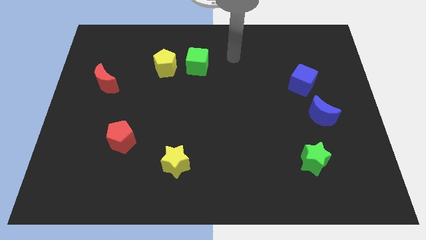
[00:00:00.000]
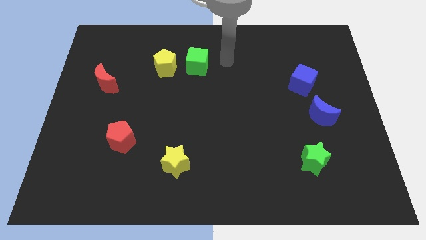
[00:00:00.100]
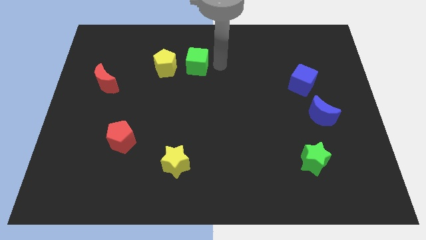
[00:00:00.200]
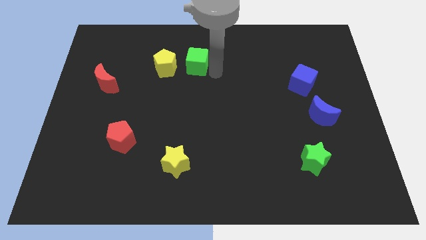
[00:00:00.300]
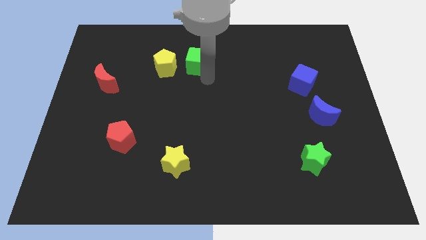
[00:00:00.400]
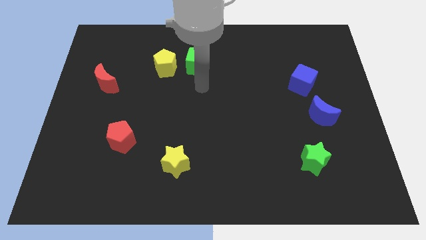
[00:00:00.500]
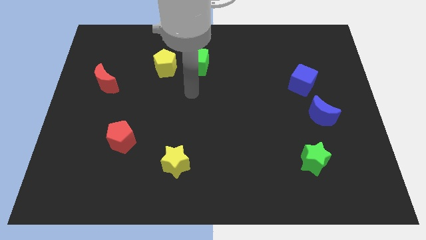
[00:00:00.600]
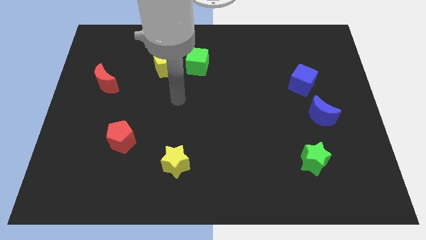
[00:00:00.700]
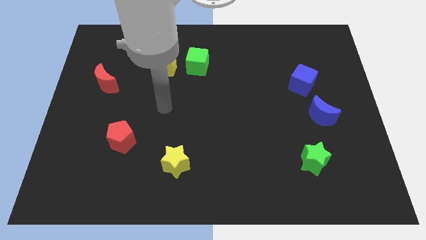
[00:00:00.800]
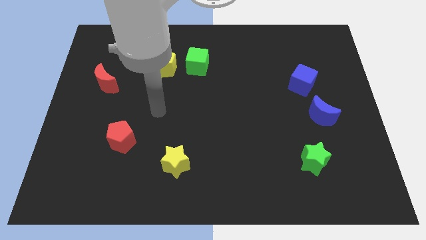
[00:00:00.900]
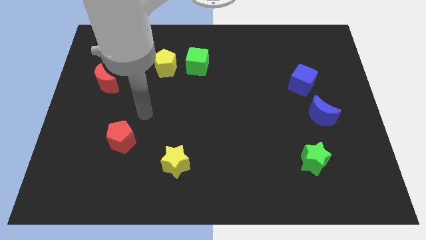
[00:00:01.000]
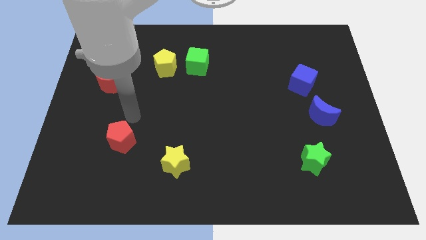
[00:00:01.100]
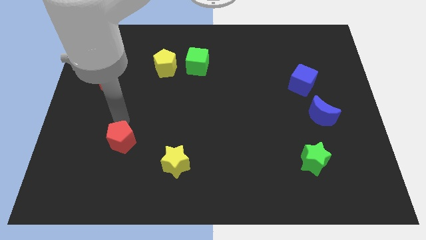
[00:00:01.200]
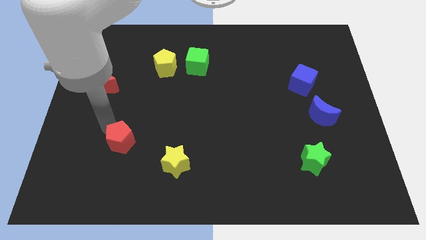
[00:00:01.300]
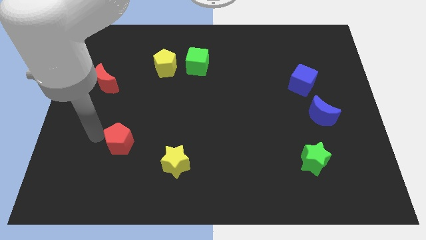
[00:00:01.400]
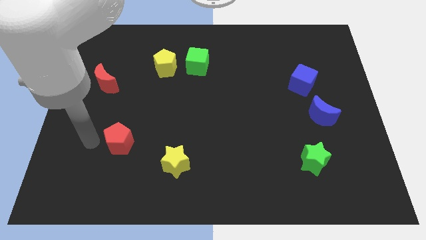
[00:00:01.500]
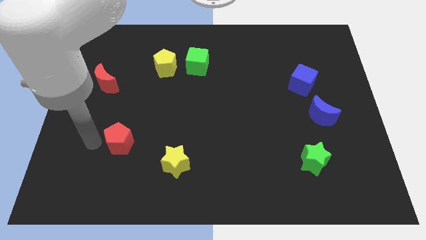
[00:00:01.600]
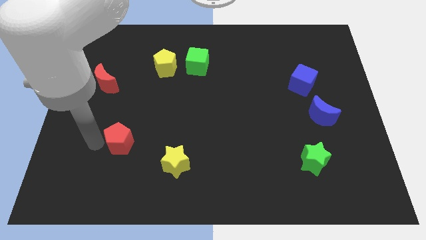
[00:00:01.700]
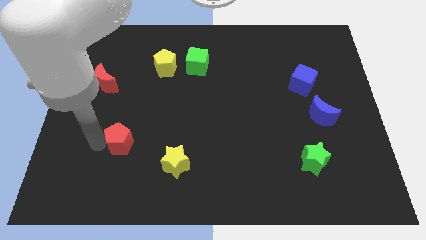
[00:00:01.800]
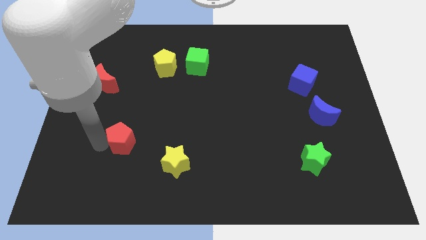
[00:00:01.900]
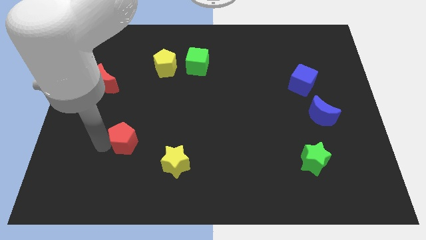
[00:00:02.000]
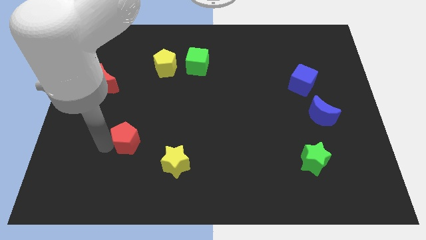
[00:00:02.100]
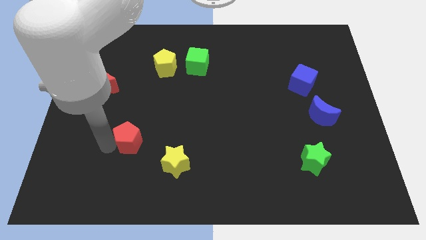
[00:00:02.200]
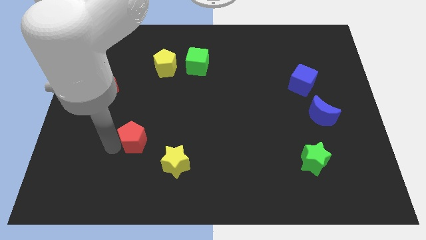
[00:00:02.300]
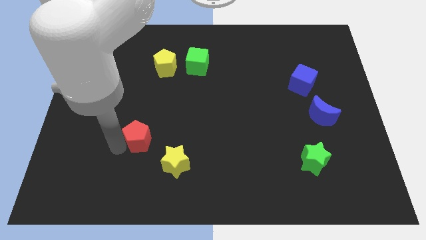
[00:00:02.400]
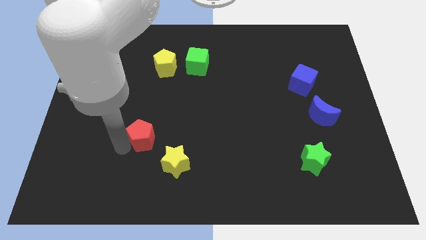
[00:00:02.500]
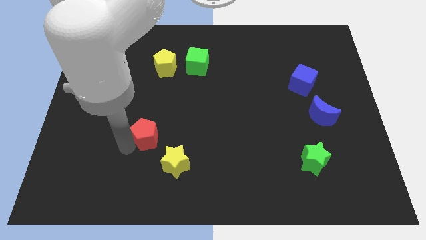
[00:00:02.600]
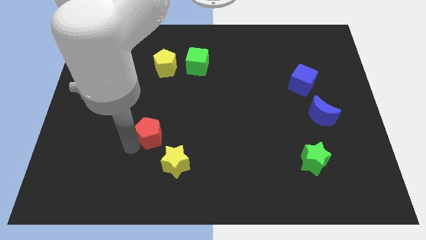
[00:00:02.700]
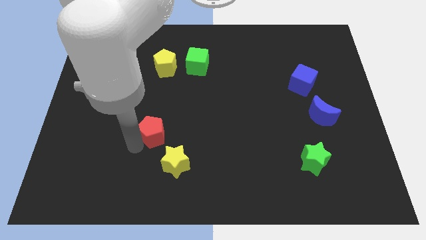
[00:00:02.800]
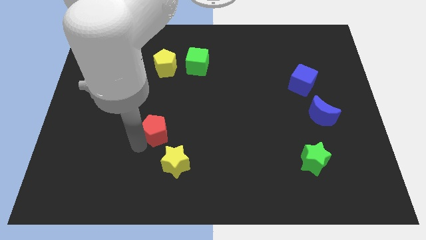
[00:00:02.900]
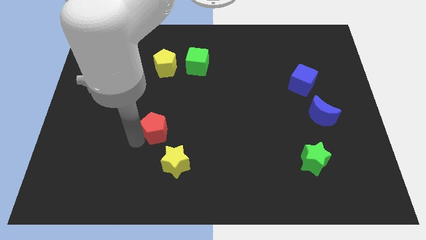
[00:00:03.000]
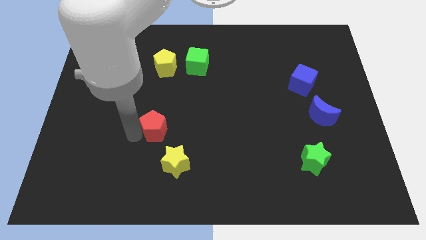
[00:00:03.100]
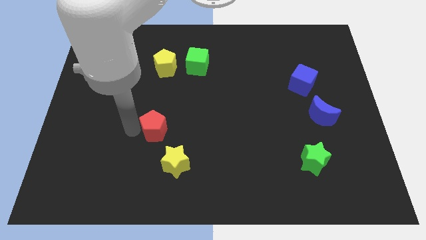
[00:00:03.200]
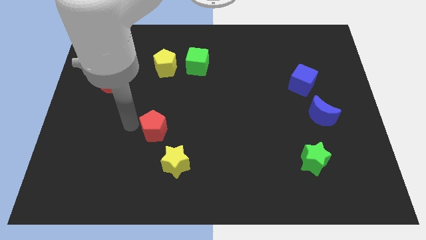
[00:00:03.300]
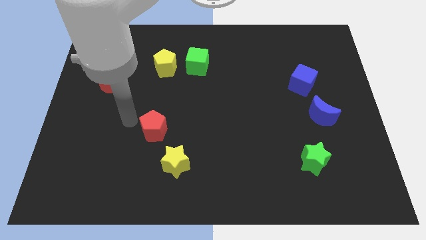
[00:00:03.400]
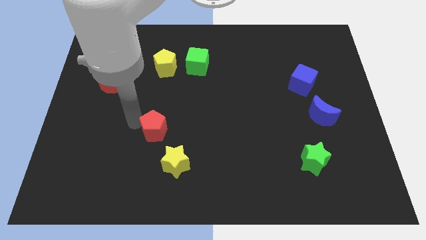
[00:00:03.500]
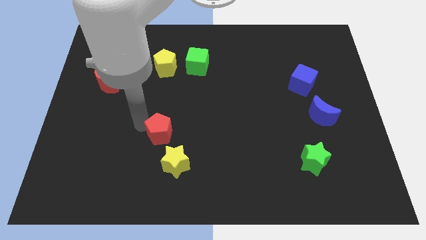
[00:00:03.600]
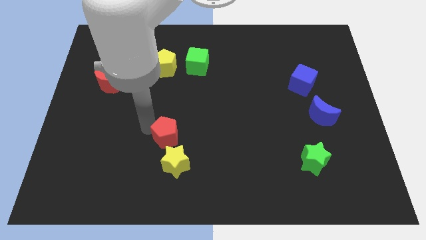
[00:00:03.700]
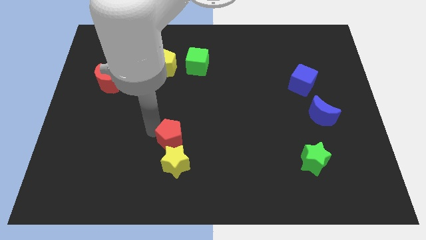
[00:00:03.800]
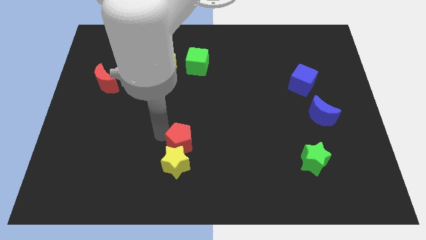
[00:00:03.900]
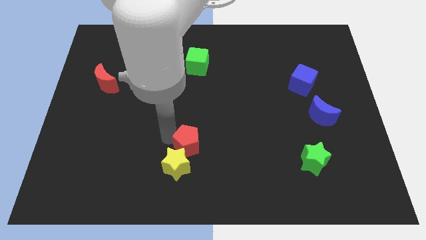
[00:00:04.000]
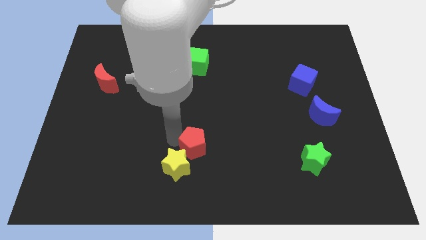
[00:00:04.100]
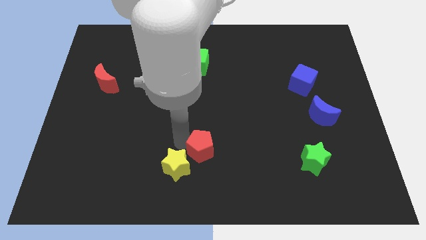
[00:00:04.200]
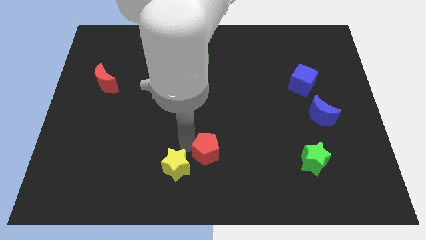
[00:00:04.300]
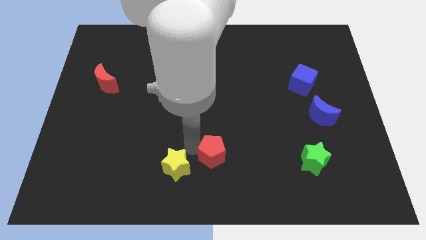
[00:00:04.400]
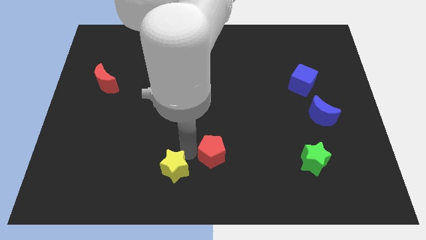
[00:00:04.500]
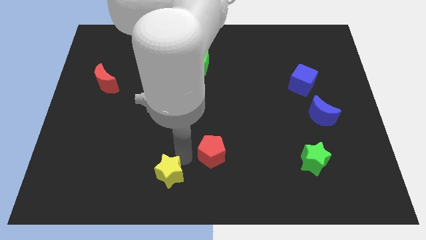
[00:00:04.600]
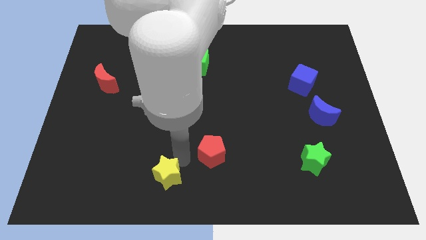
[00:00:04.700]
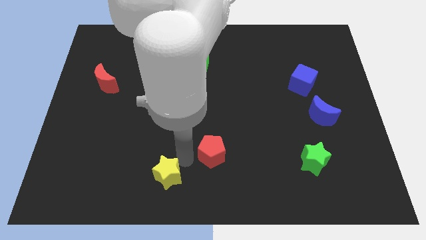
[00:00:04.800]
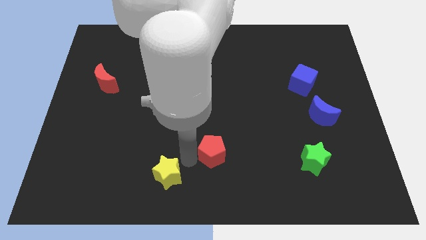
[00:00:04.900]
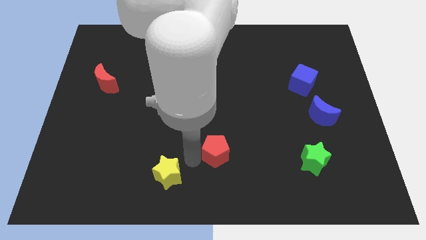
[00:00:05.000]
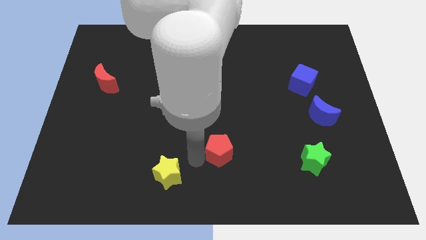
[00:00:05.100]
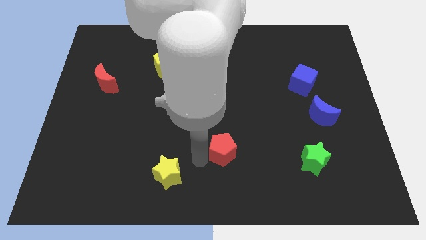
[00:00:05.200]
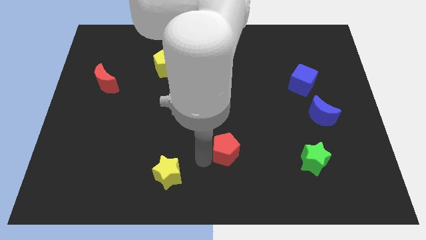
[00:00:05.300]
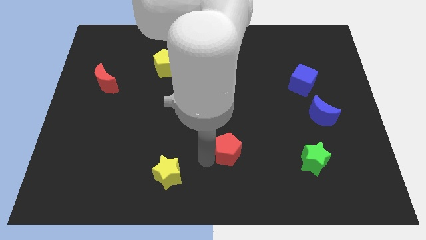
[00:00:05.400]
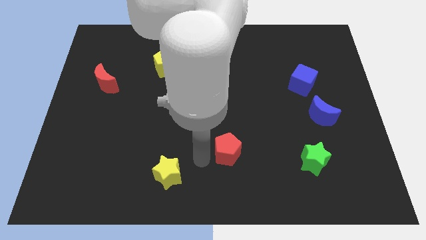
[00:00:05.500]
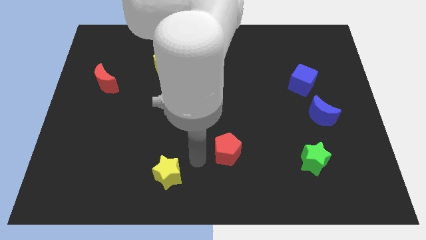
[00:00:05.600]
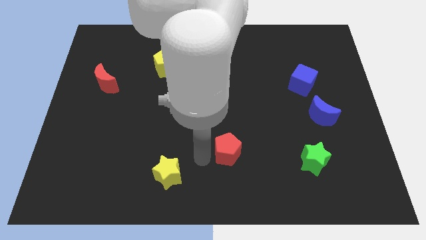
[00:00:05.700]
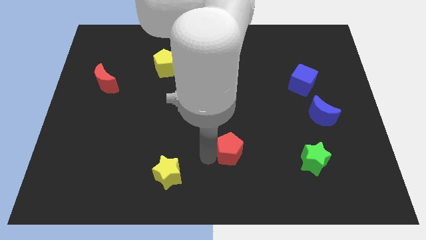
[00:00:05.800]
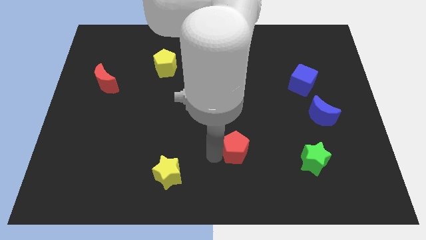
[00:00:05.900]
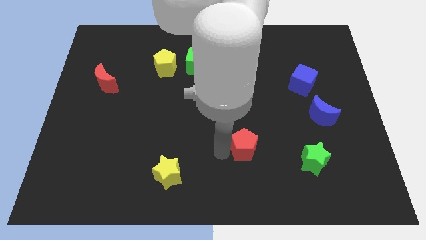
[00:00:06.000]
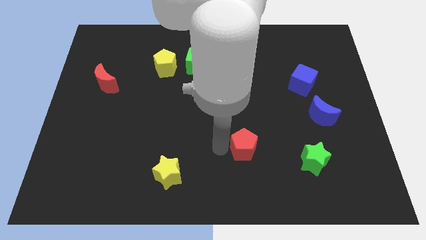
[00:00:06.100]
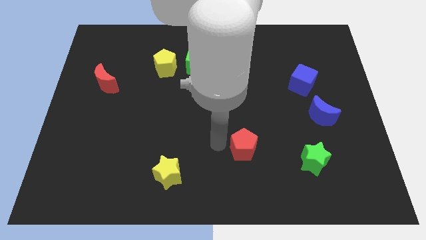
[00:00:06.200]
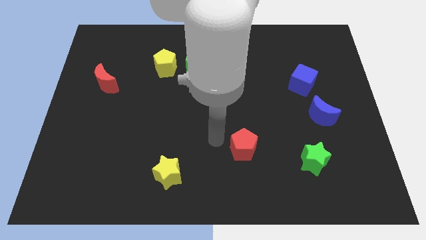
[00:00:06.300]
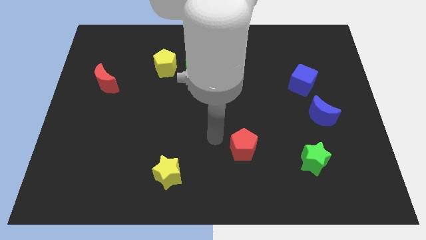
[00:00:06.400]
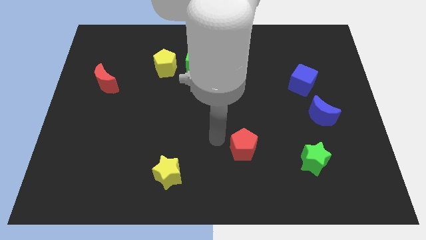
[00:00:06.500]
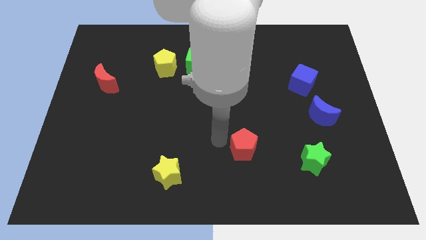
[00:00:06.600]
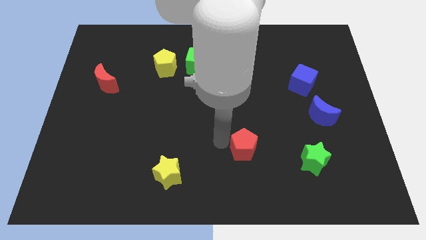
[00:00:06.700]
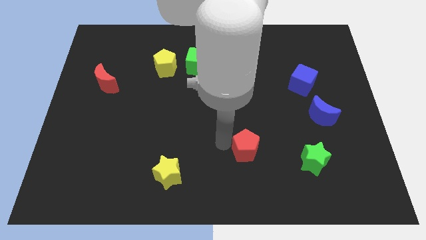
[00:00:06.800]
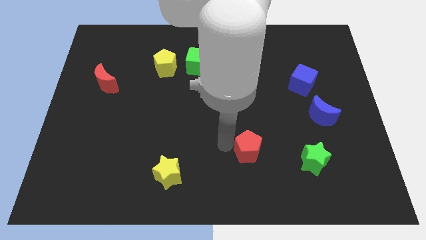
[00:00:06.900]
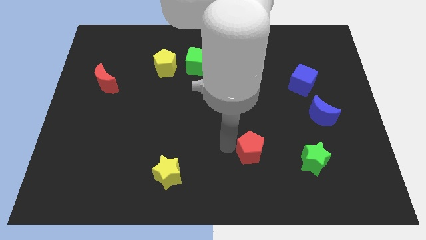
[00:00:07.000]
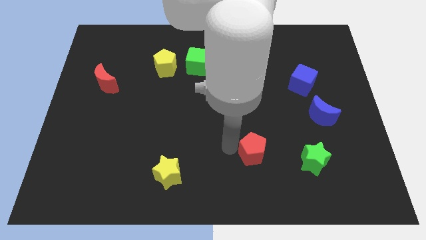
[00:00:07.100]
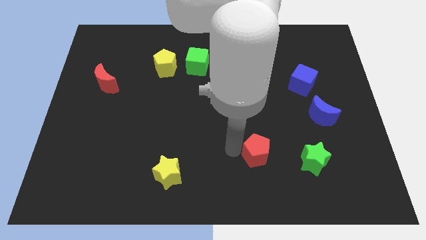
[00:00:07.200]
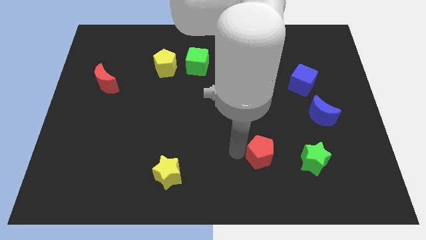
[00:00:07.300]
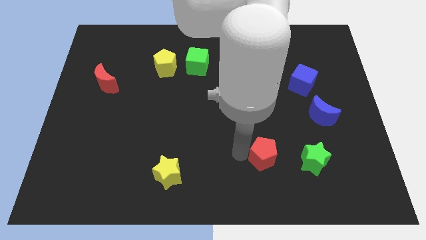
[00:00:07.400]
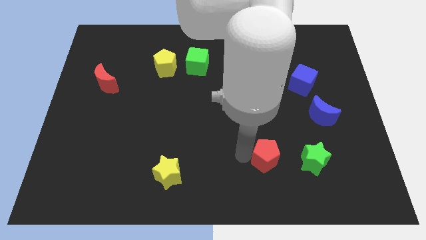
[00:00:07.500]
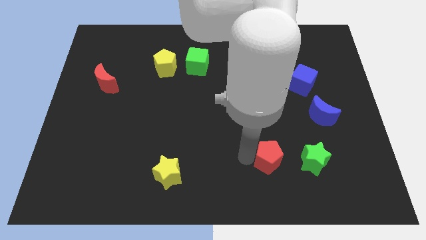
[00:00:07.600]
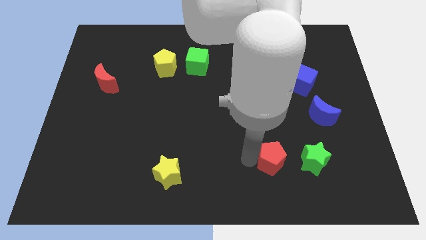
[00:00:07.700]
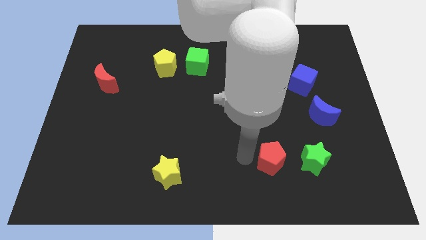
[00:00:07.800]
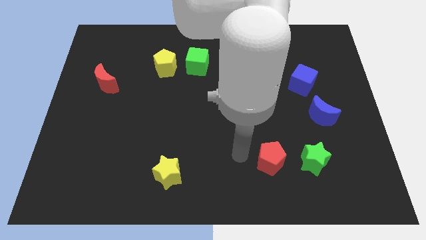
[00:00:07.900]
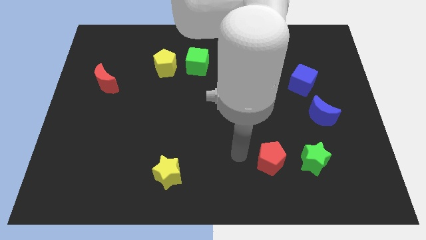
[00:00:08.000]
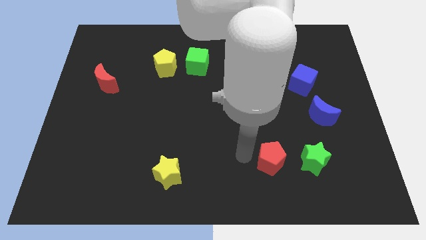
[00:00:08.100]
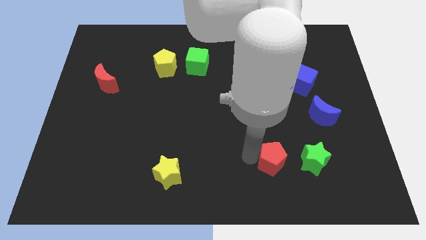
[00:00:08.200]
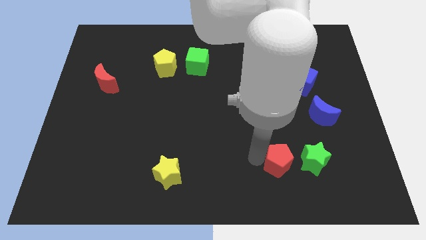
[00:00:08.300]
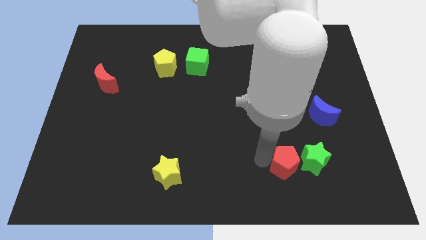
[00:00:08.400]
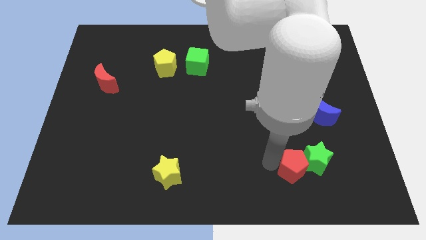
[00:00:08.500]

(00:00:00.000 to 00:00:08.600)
put the red pentagon next to the green star
